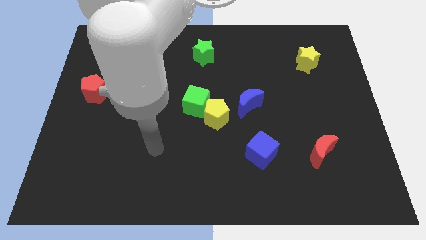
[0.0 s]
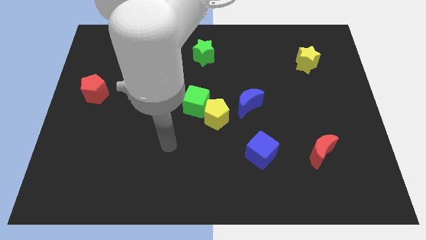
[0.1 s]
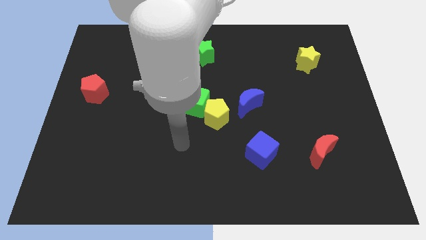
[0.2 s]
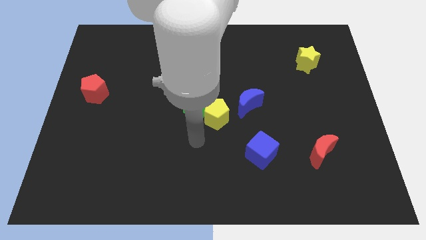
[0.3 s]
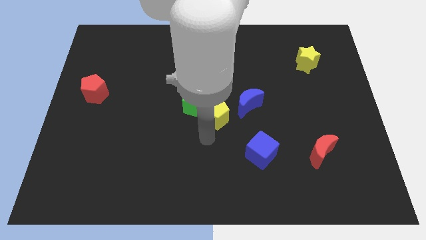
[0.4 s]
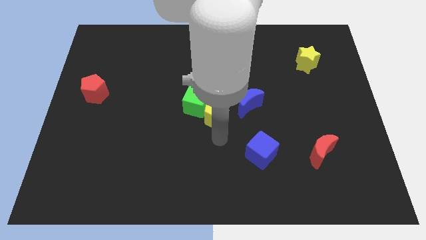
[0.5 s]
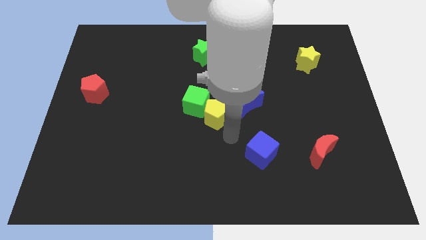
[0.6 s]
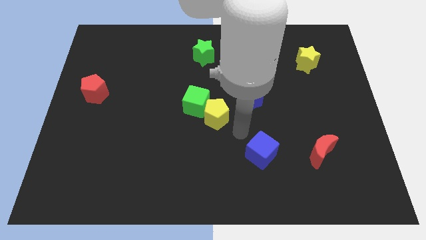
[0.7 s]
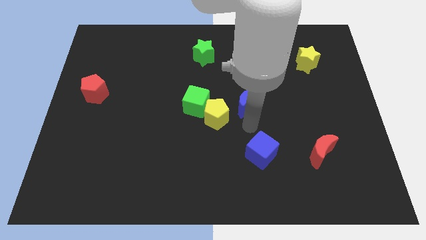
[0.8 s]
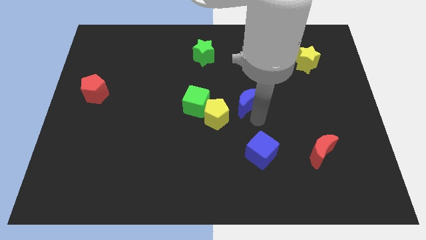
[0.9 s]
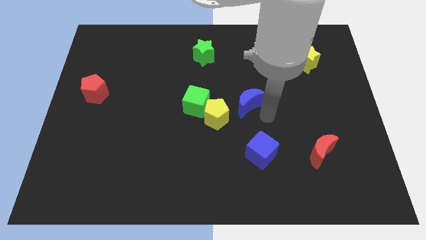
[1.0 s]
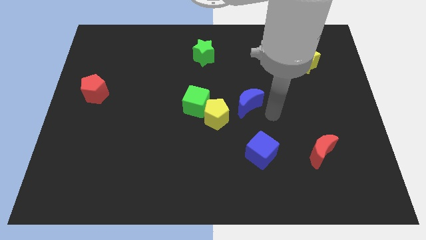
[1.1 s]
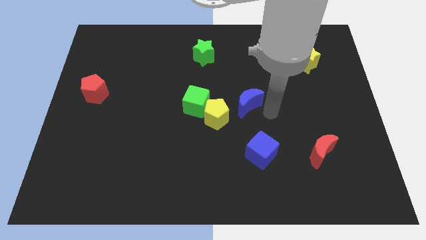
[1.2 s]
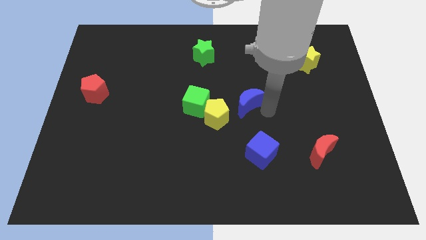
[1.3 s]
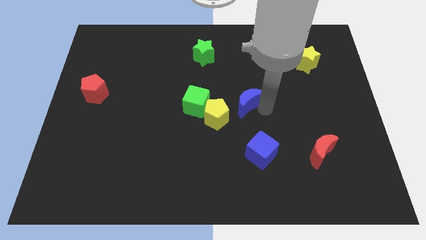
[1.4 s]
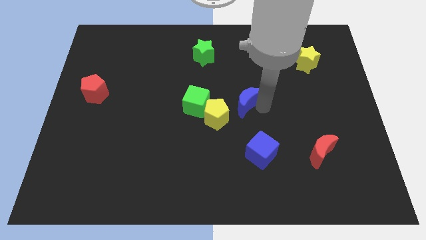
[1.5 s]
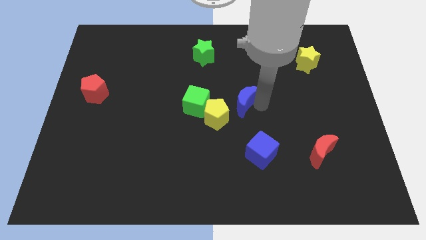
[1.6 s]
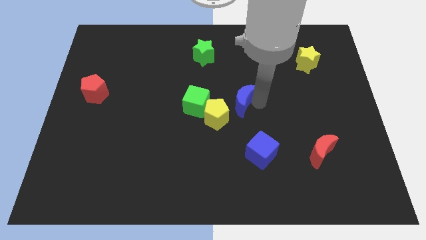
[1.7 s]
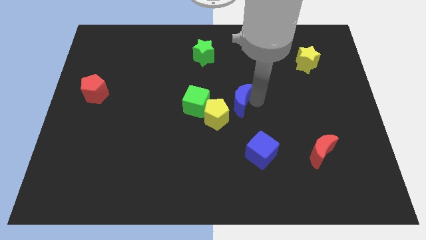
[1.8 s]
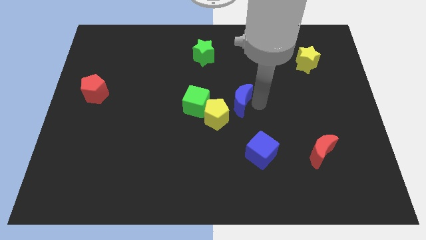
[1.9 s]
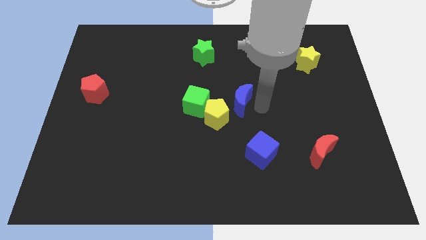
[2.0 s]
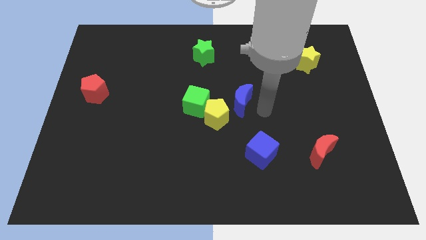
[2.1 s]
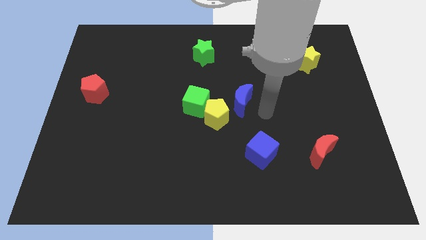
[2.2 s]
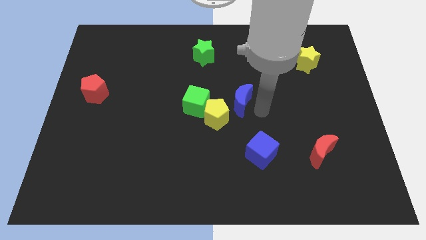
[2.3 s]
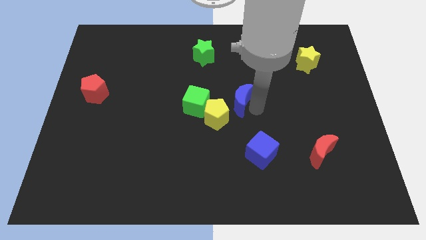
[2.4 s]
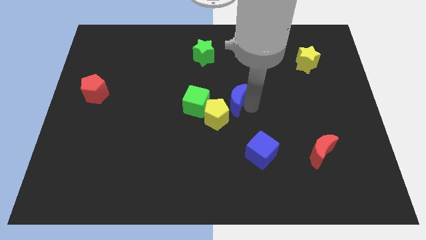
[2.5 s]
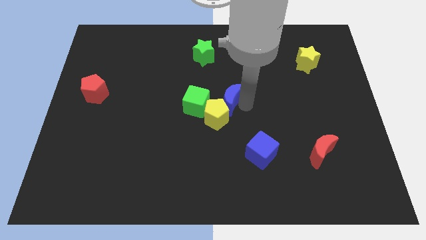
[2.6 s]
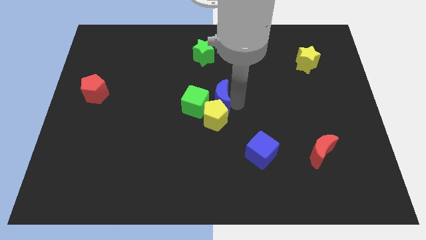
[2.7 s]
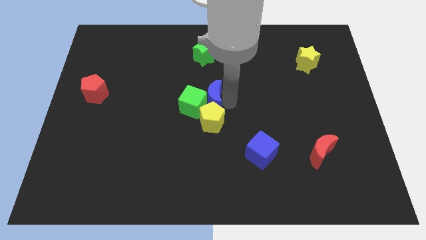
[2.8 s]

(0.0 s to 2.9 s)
push the blue moon left a bit

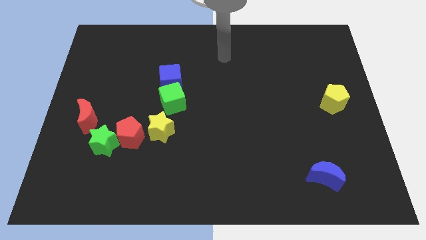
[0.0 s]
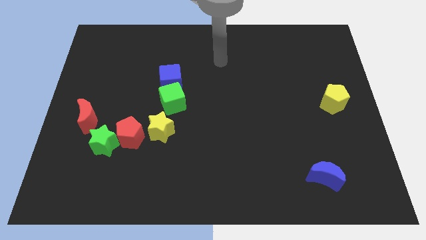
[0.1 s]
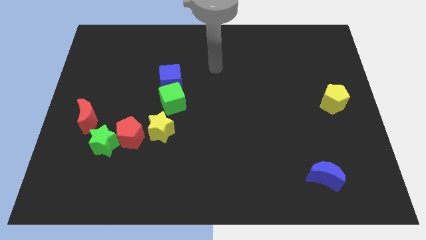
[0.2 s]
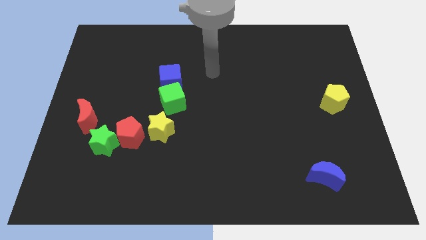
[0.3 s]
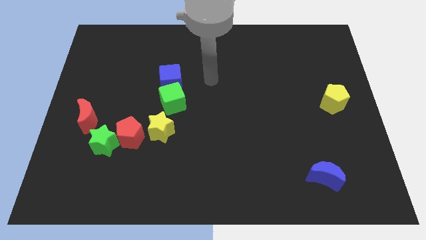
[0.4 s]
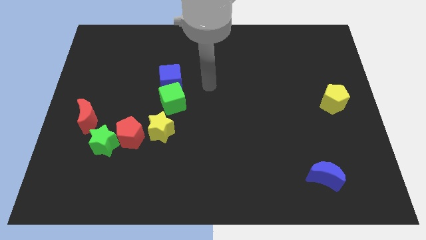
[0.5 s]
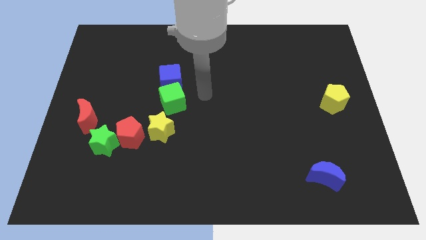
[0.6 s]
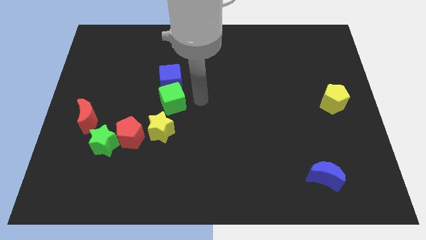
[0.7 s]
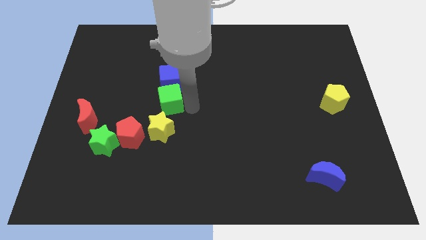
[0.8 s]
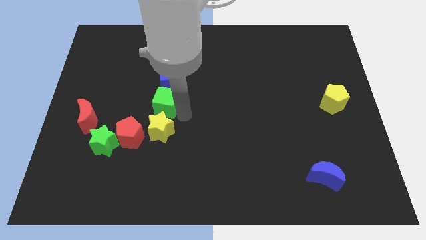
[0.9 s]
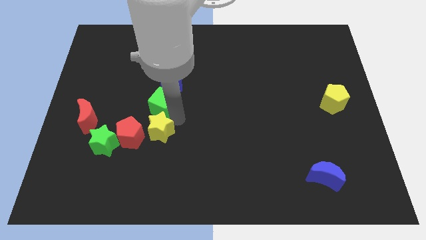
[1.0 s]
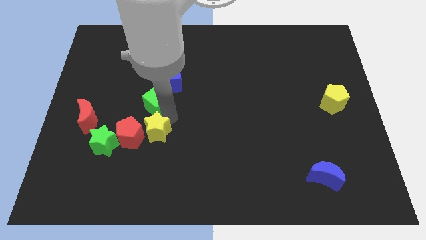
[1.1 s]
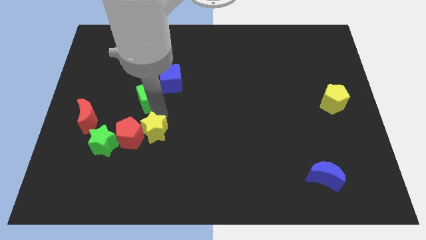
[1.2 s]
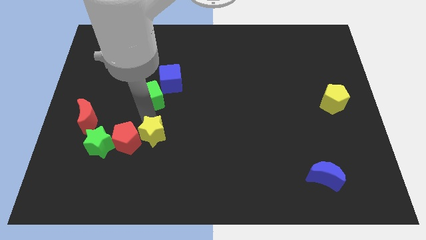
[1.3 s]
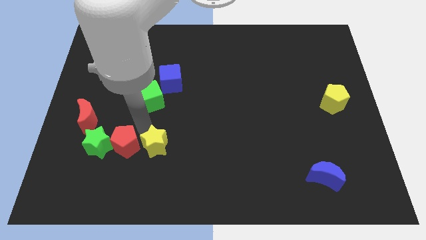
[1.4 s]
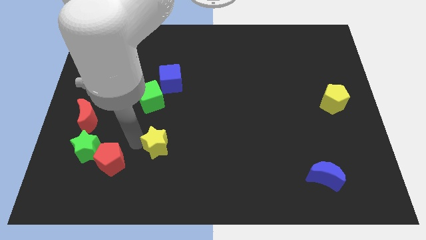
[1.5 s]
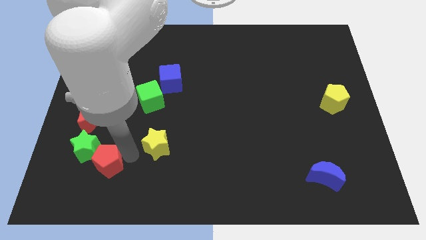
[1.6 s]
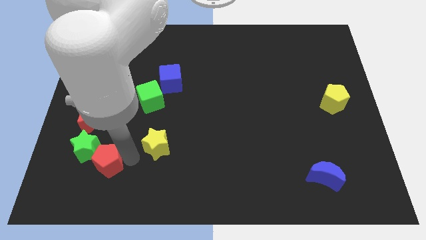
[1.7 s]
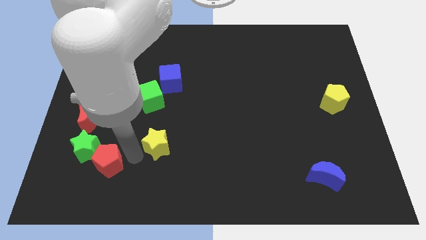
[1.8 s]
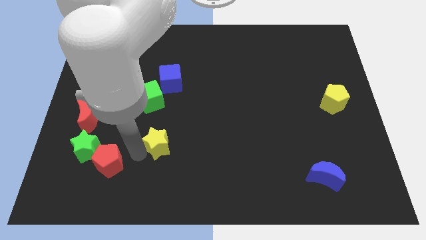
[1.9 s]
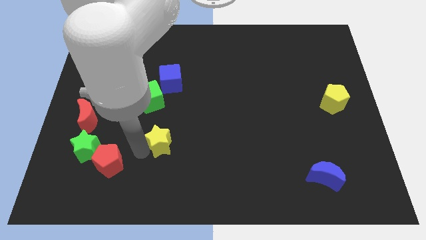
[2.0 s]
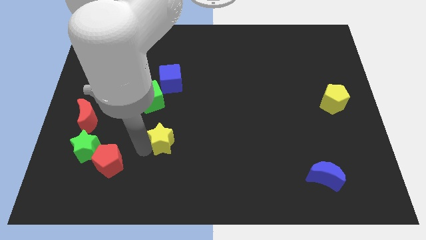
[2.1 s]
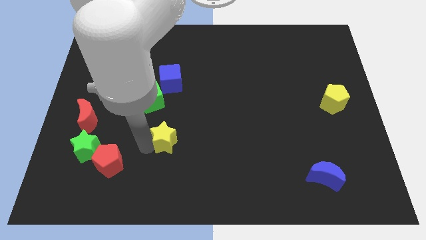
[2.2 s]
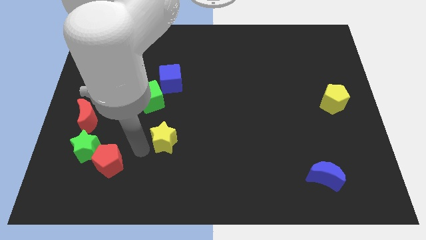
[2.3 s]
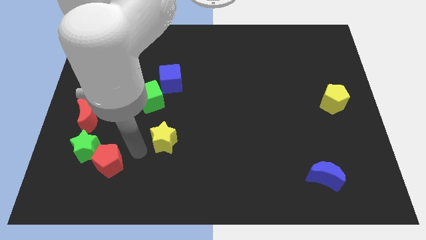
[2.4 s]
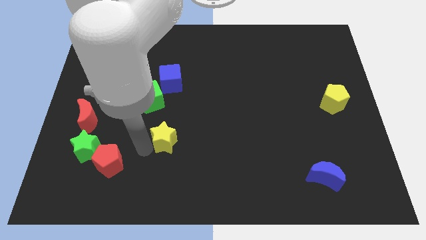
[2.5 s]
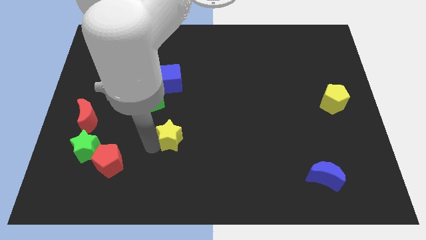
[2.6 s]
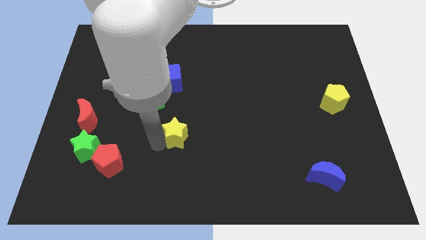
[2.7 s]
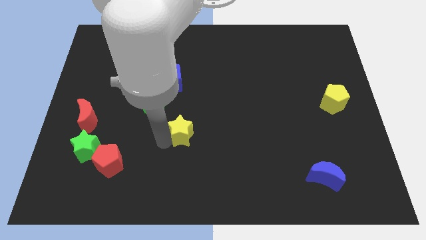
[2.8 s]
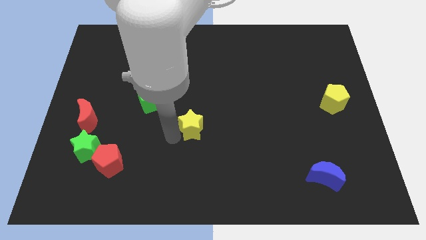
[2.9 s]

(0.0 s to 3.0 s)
slide the yellow star a little to the right

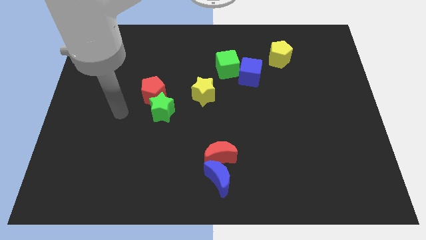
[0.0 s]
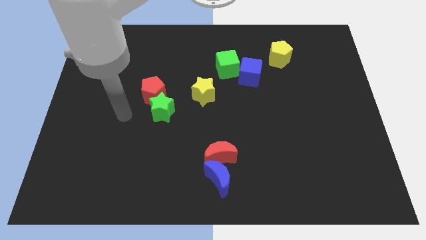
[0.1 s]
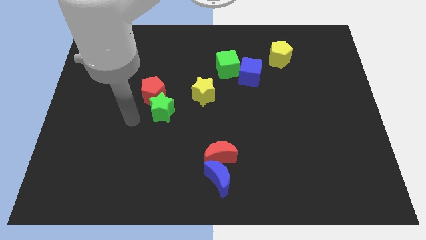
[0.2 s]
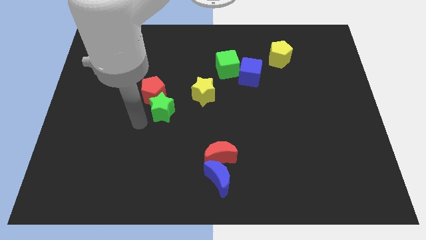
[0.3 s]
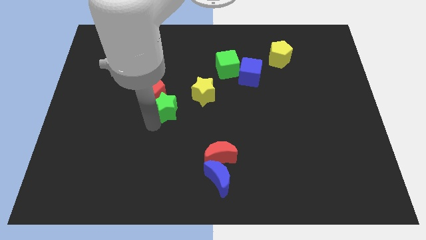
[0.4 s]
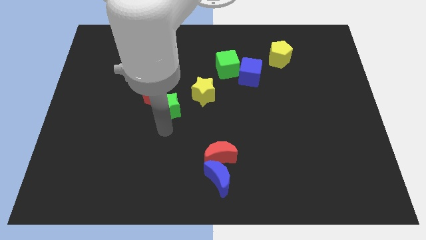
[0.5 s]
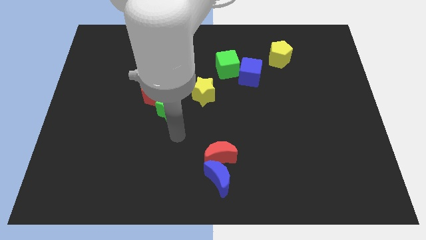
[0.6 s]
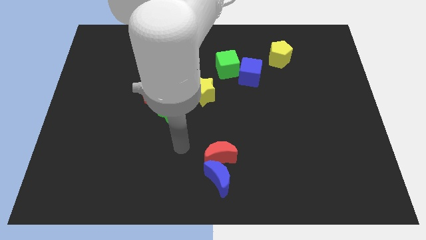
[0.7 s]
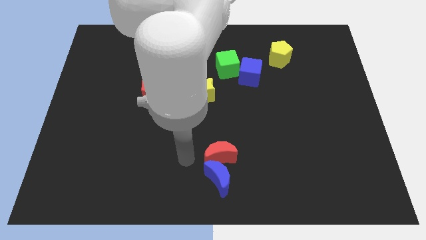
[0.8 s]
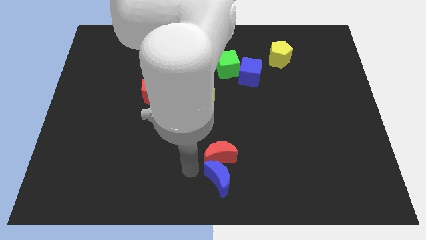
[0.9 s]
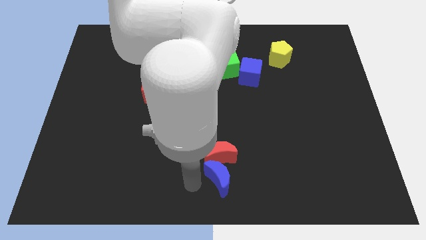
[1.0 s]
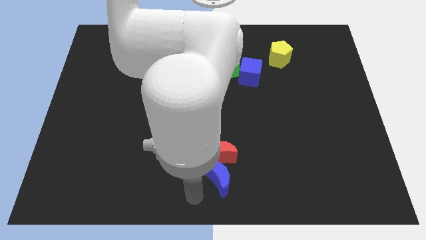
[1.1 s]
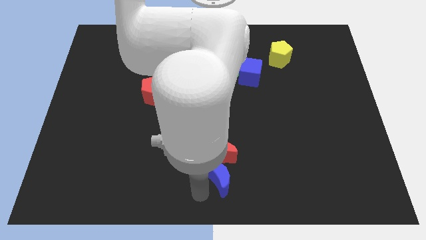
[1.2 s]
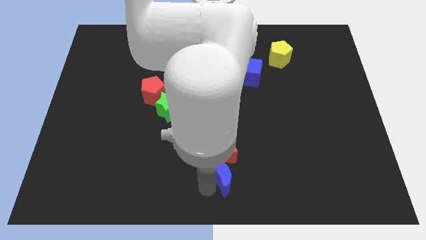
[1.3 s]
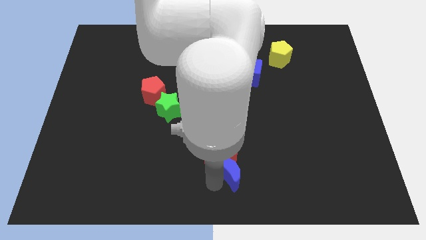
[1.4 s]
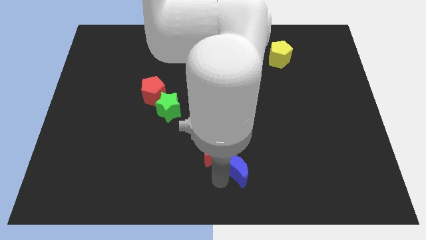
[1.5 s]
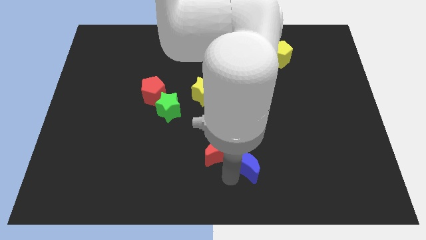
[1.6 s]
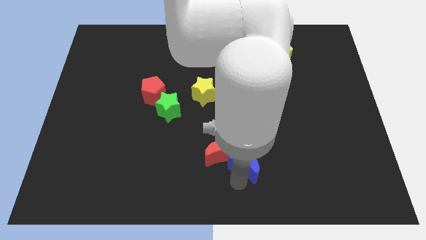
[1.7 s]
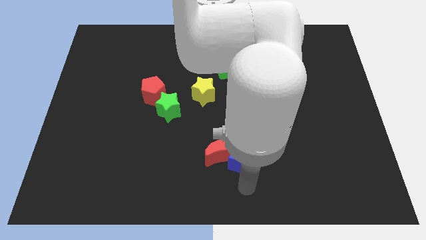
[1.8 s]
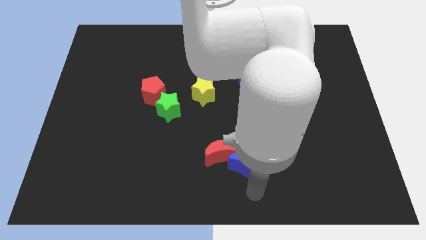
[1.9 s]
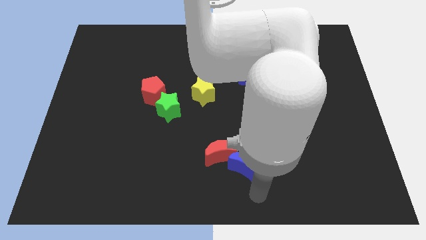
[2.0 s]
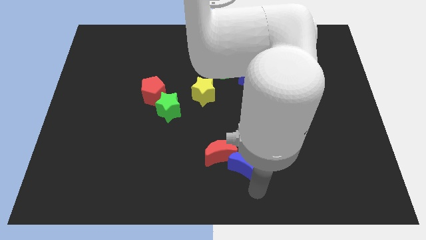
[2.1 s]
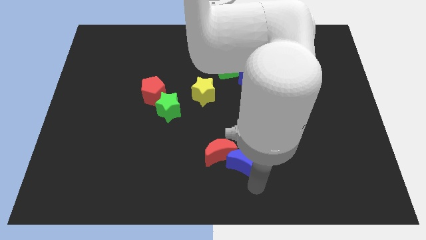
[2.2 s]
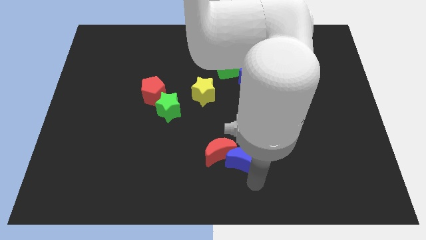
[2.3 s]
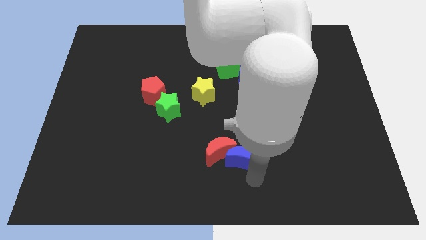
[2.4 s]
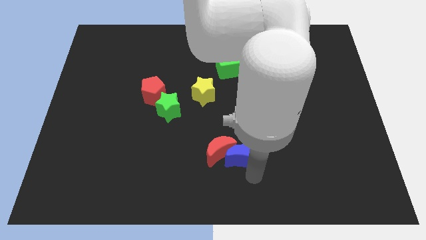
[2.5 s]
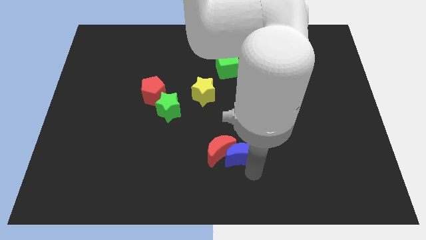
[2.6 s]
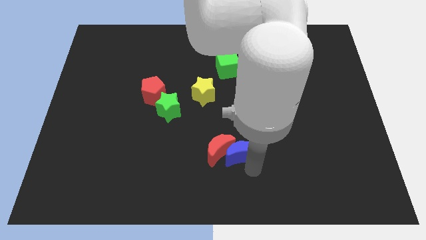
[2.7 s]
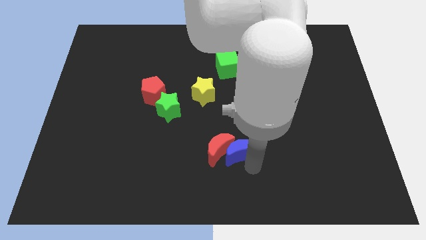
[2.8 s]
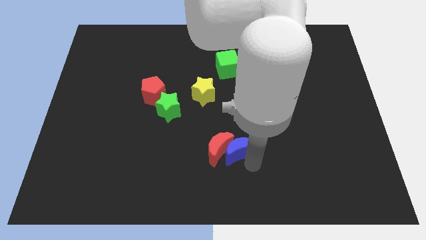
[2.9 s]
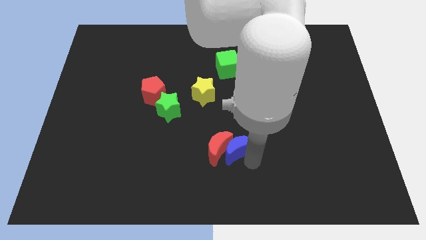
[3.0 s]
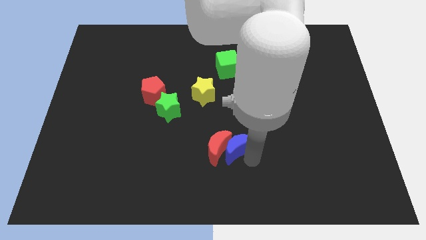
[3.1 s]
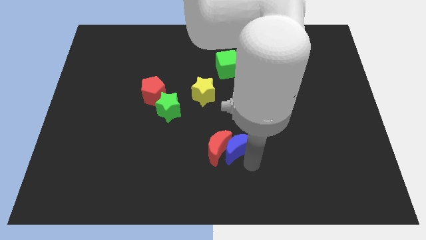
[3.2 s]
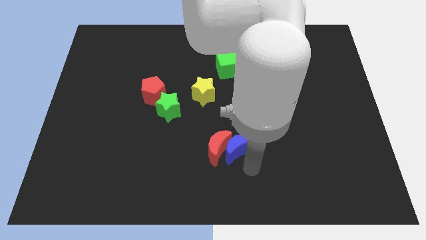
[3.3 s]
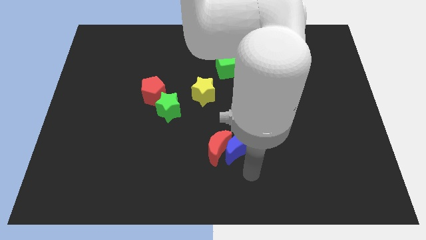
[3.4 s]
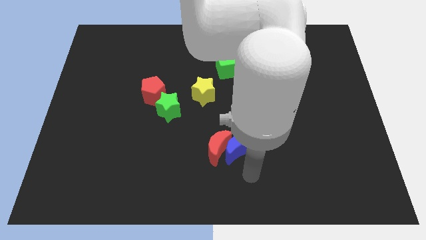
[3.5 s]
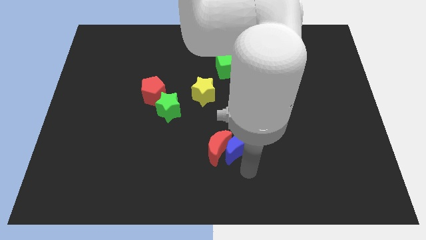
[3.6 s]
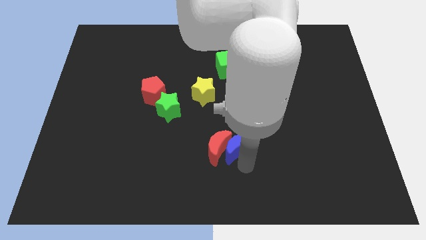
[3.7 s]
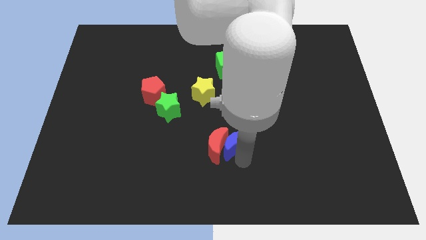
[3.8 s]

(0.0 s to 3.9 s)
push the blue moon a little bit up
